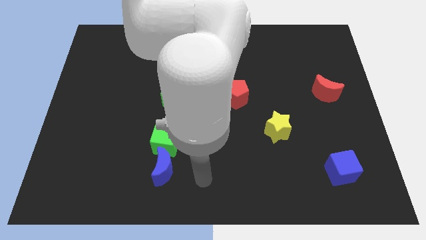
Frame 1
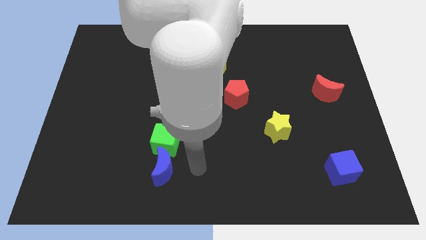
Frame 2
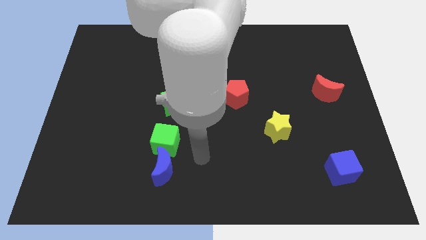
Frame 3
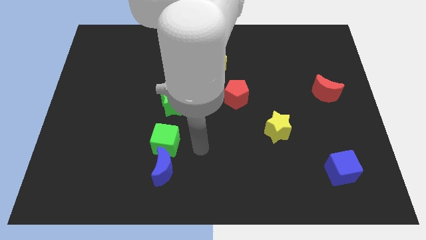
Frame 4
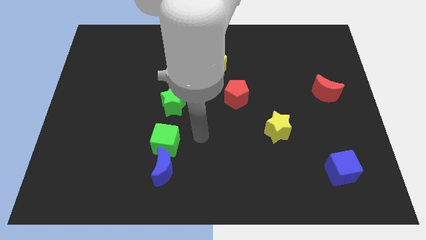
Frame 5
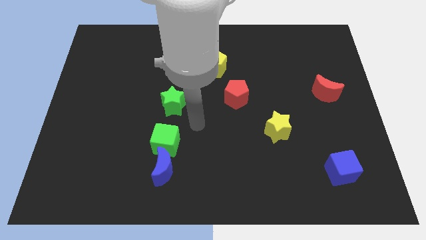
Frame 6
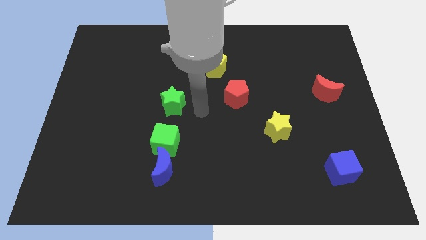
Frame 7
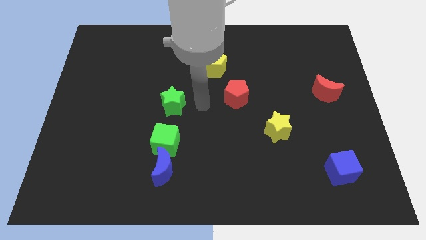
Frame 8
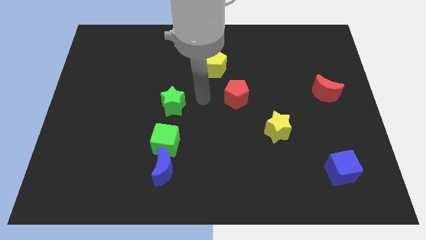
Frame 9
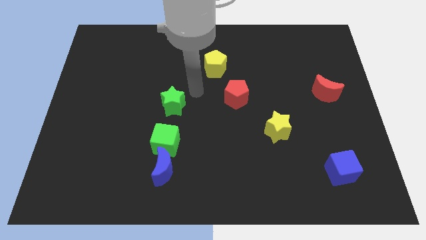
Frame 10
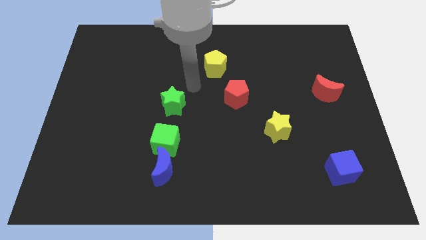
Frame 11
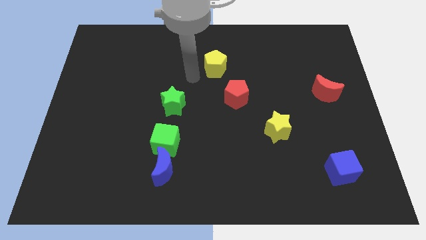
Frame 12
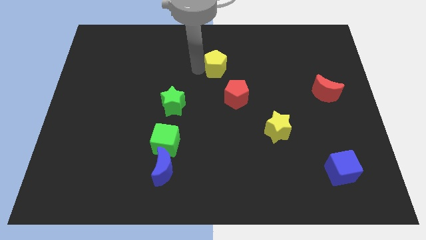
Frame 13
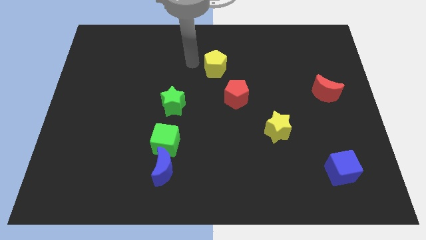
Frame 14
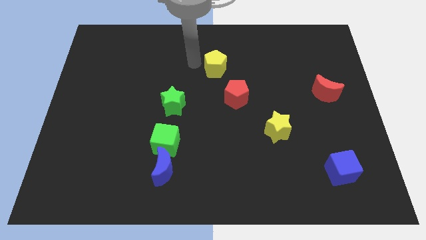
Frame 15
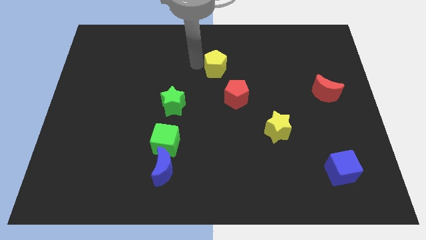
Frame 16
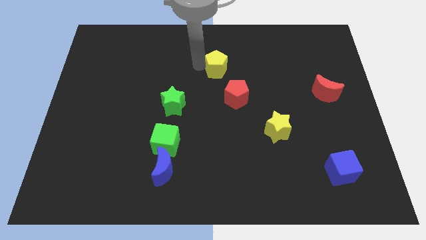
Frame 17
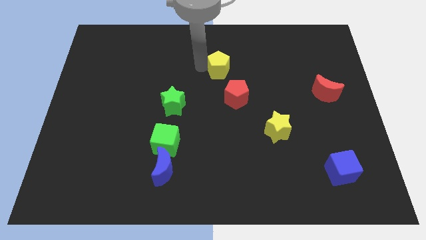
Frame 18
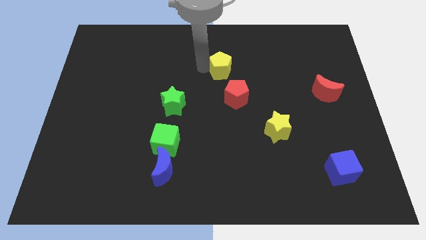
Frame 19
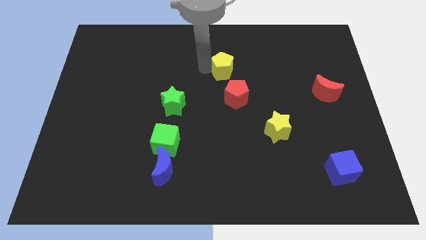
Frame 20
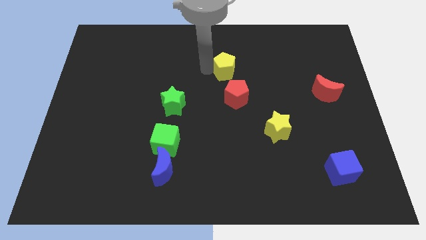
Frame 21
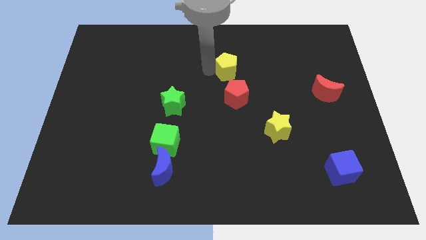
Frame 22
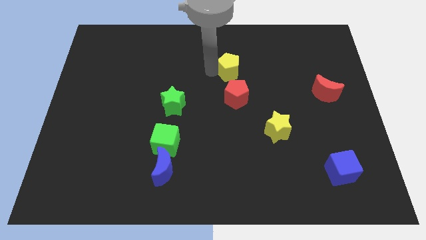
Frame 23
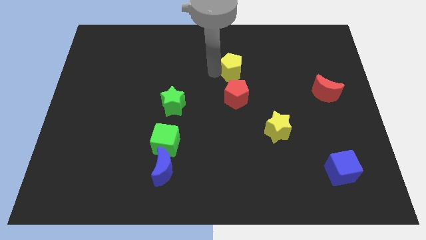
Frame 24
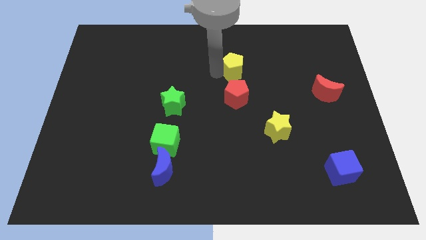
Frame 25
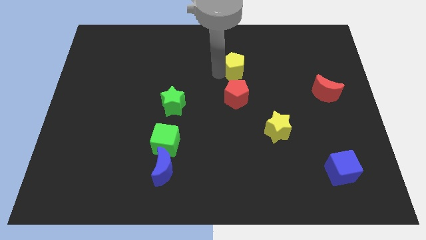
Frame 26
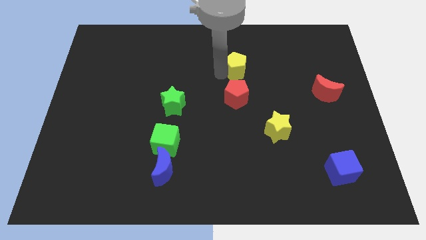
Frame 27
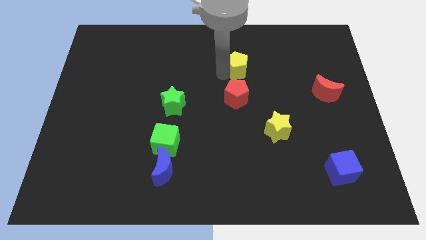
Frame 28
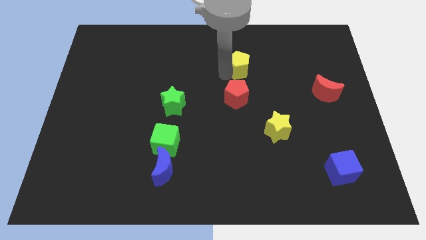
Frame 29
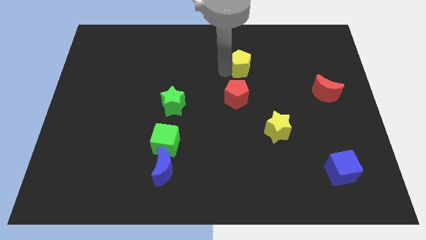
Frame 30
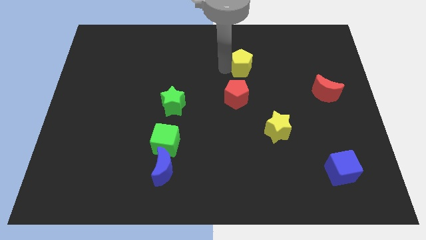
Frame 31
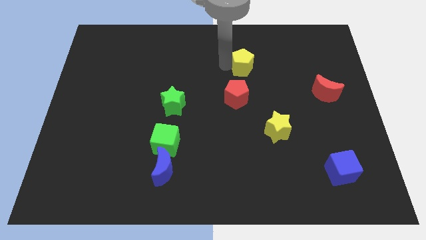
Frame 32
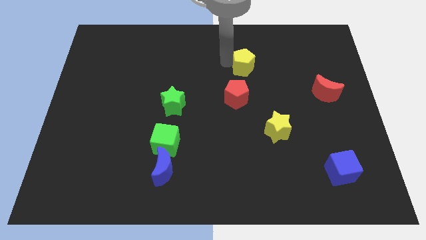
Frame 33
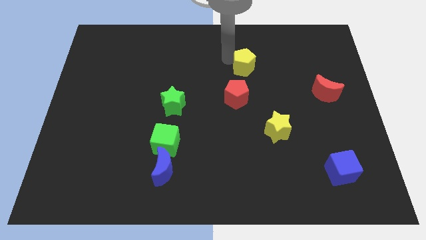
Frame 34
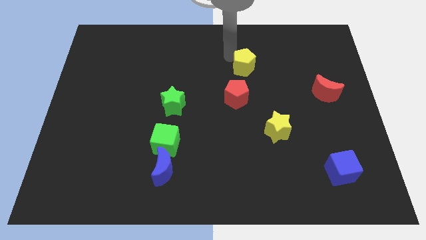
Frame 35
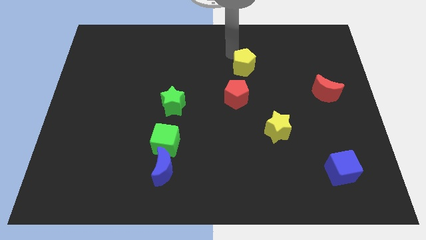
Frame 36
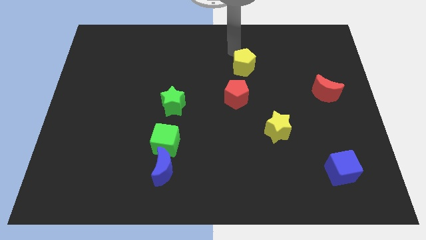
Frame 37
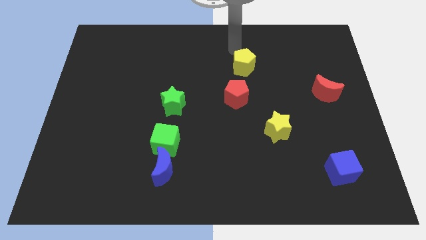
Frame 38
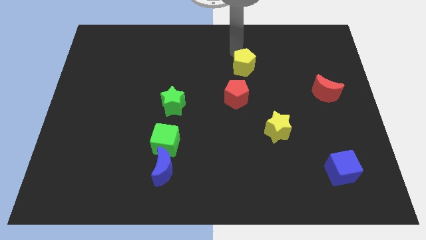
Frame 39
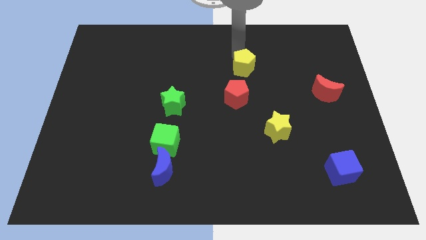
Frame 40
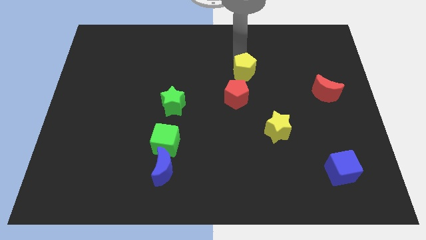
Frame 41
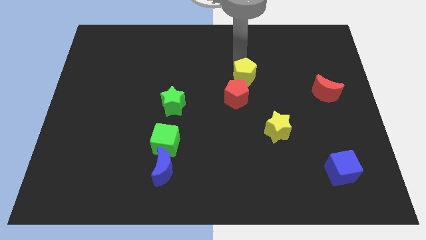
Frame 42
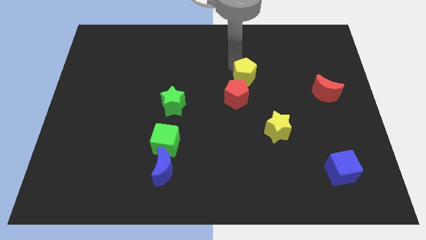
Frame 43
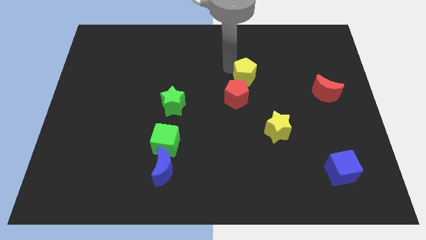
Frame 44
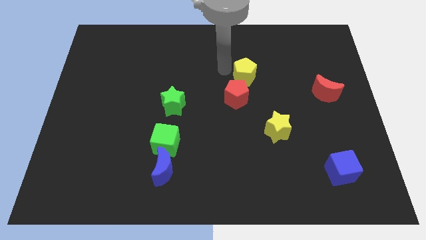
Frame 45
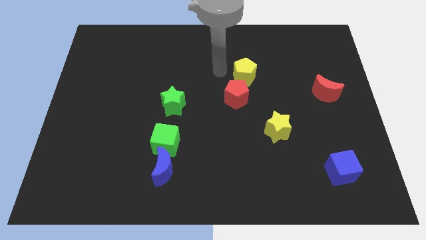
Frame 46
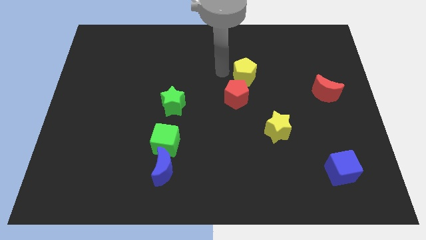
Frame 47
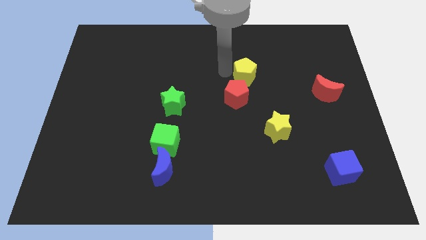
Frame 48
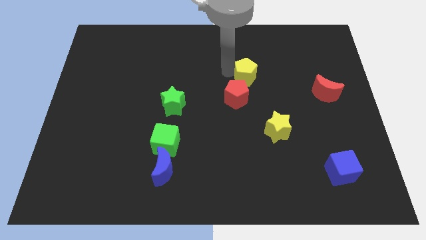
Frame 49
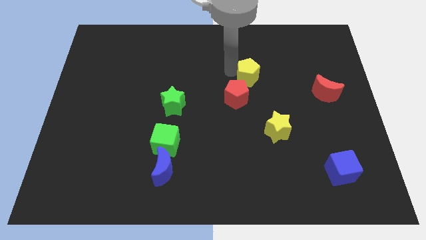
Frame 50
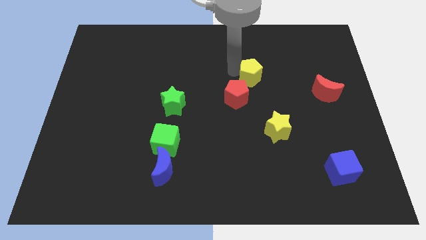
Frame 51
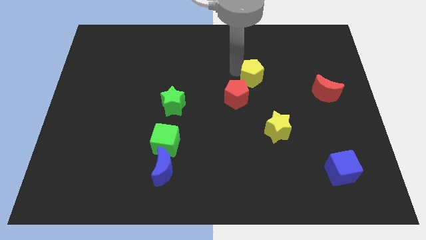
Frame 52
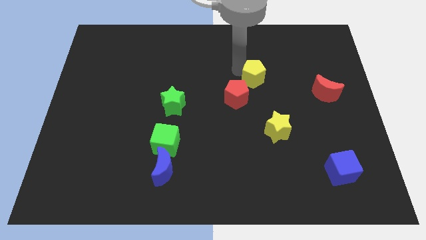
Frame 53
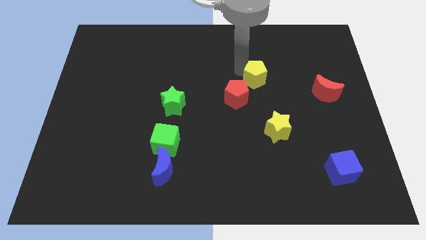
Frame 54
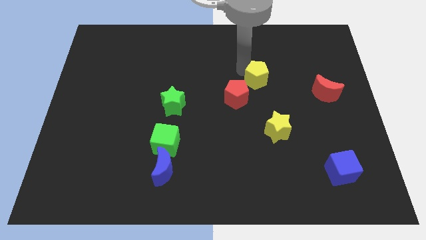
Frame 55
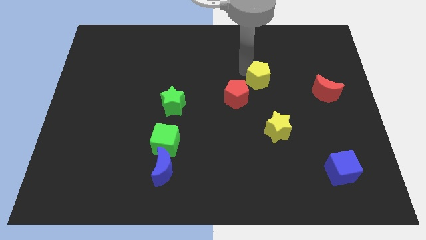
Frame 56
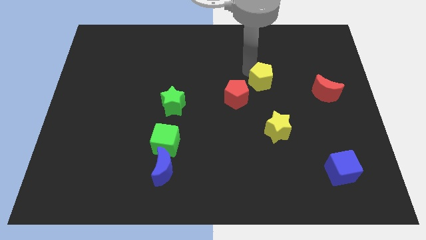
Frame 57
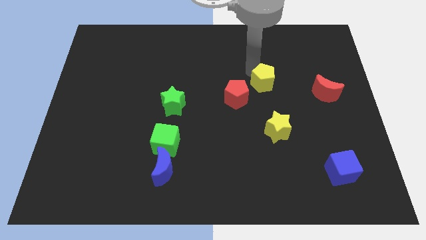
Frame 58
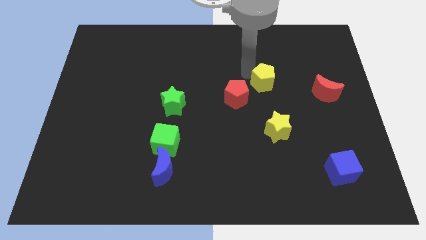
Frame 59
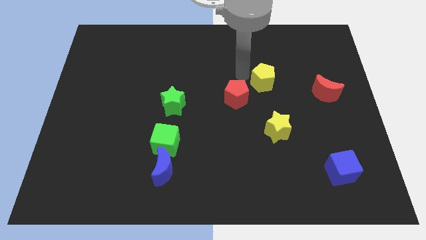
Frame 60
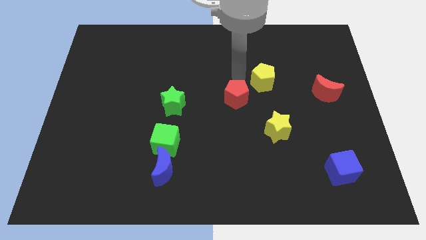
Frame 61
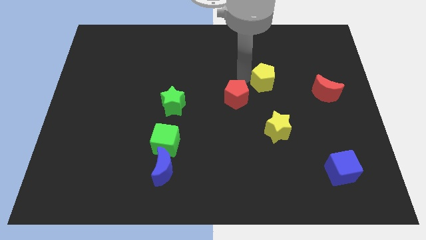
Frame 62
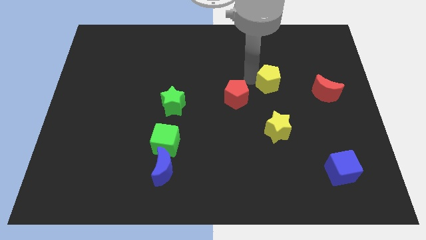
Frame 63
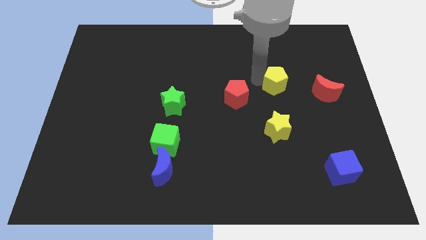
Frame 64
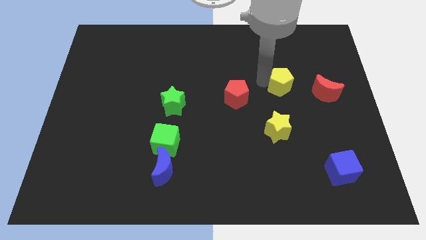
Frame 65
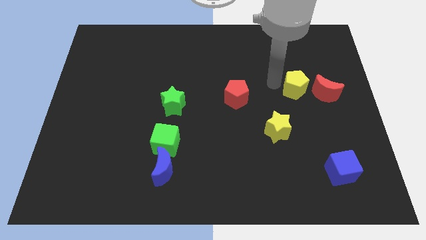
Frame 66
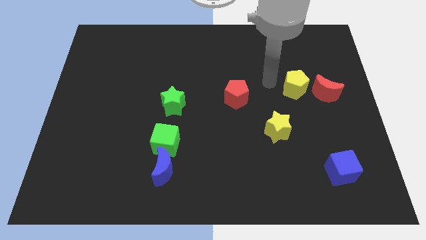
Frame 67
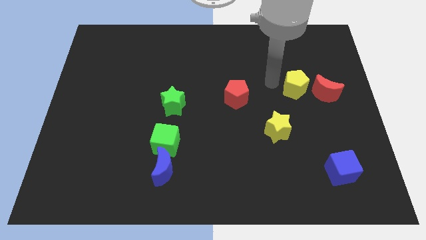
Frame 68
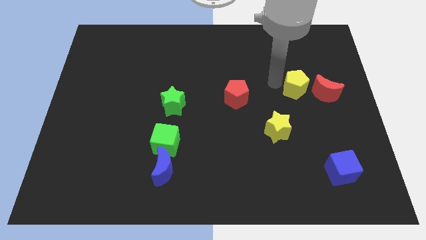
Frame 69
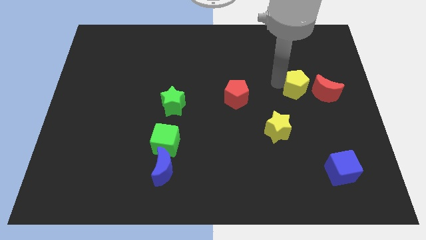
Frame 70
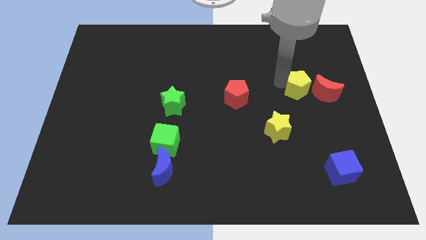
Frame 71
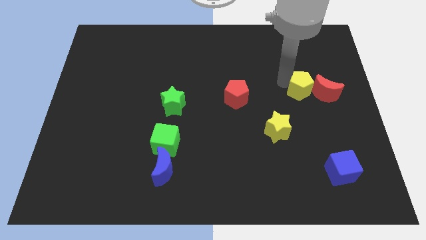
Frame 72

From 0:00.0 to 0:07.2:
push the yellow pentagon to the red moon
